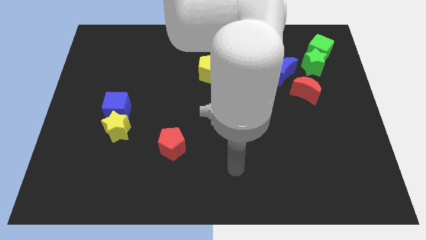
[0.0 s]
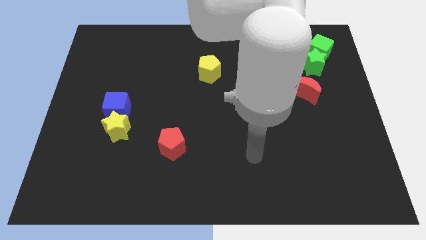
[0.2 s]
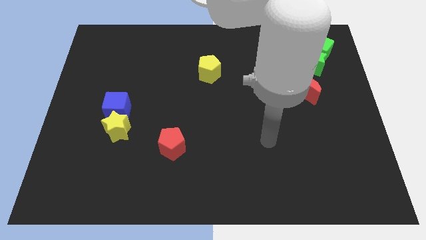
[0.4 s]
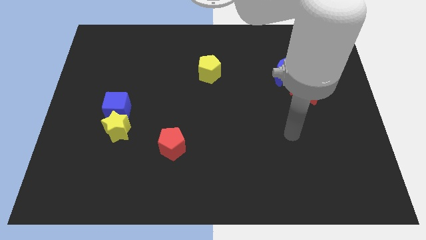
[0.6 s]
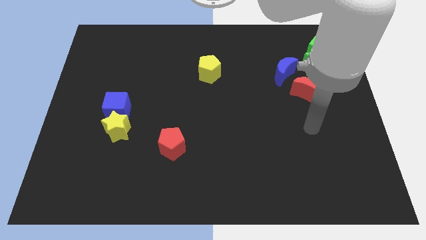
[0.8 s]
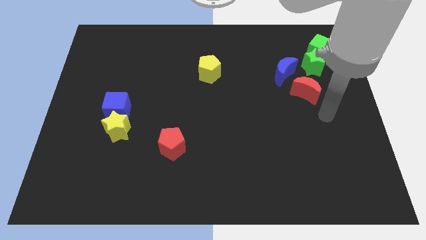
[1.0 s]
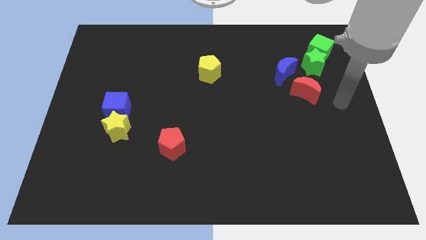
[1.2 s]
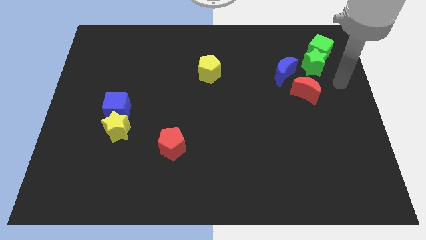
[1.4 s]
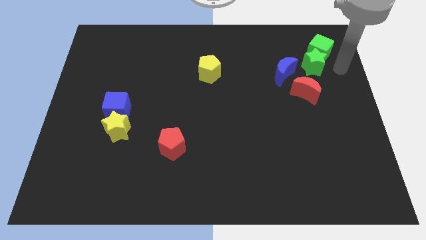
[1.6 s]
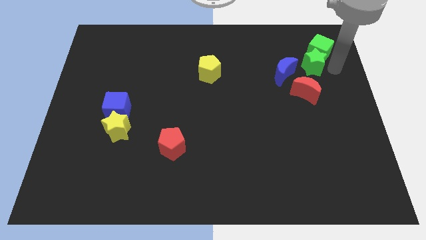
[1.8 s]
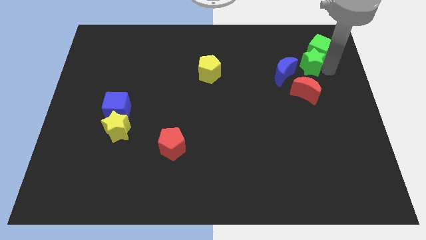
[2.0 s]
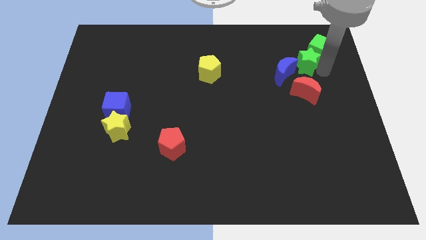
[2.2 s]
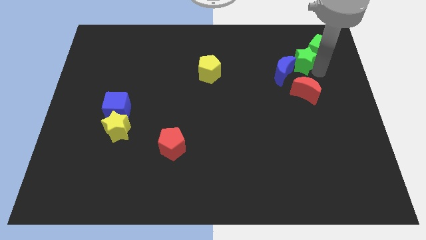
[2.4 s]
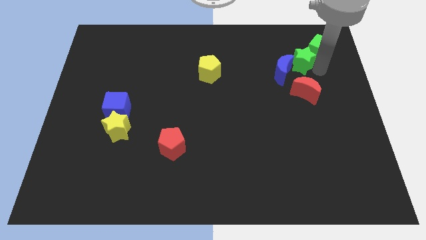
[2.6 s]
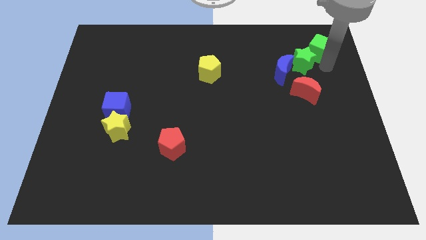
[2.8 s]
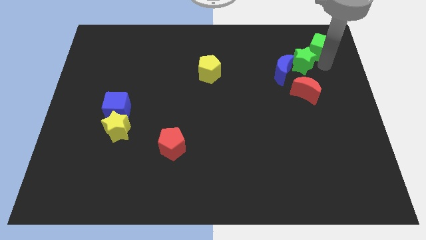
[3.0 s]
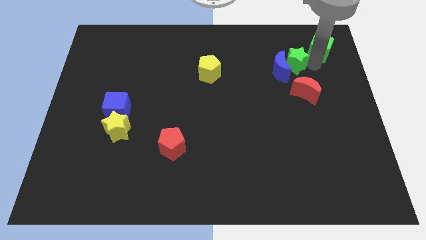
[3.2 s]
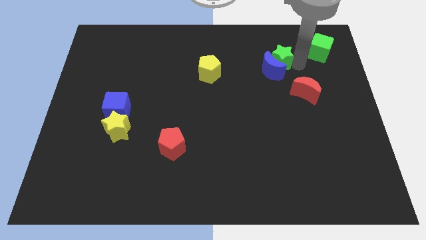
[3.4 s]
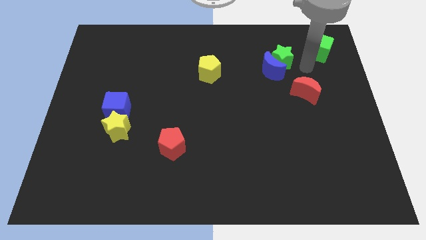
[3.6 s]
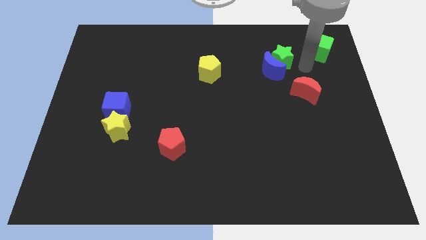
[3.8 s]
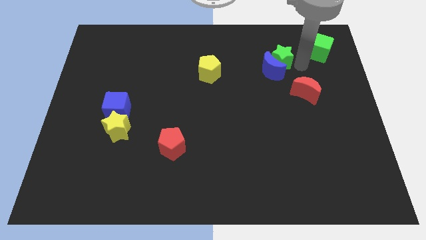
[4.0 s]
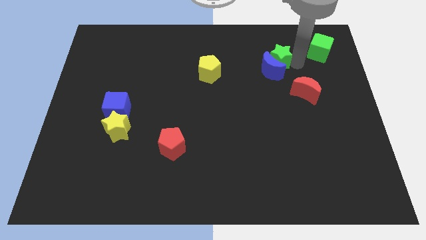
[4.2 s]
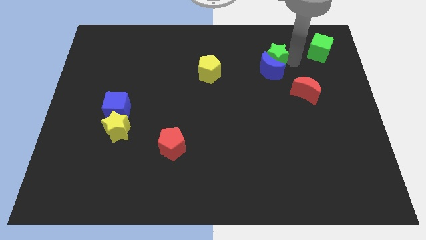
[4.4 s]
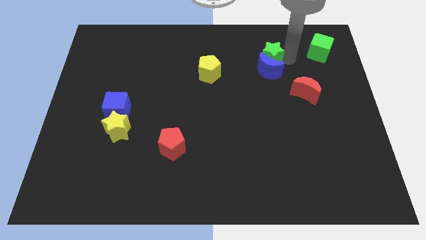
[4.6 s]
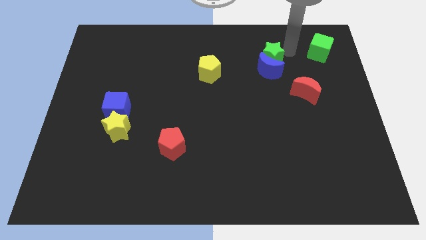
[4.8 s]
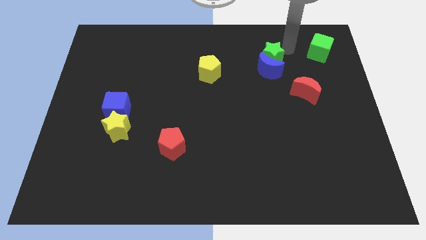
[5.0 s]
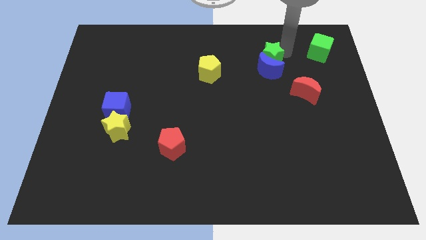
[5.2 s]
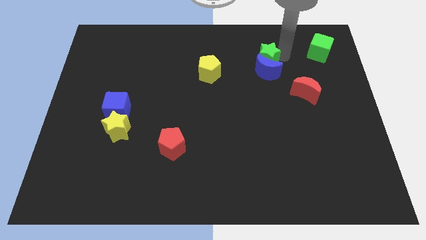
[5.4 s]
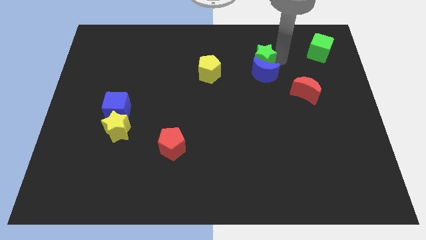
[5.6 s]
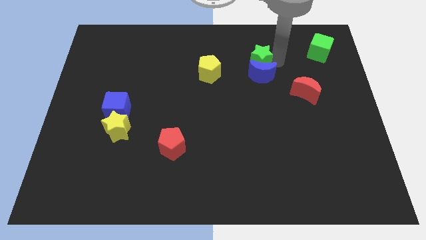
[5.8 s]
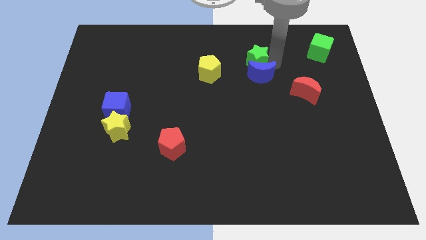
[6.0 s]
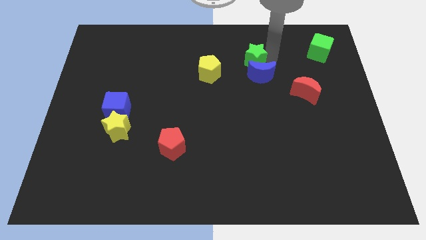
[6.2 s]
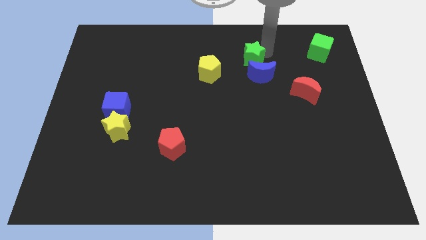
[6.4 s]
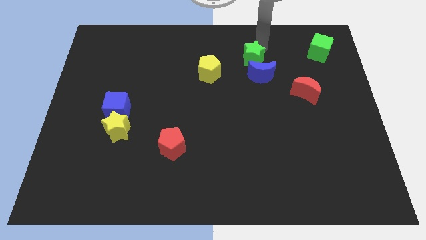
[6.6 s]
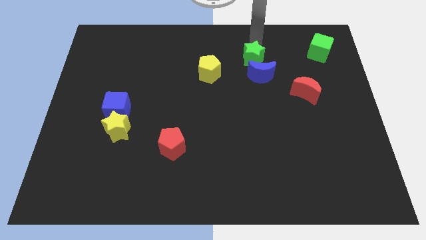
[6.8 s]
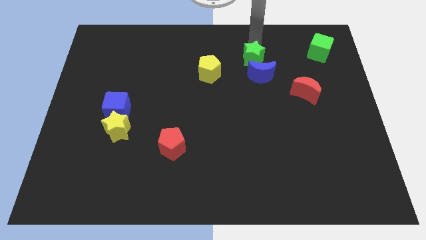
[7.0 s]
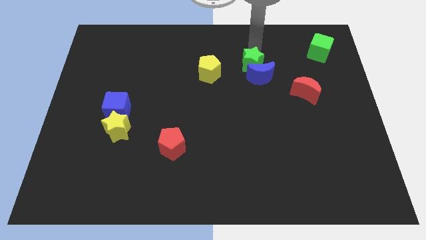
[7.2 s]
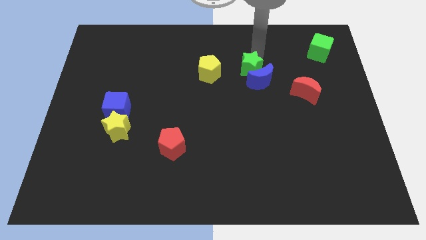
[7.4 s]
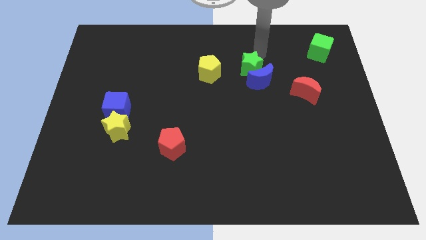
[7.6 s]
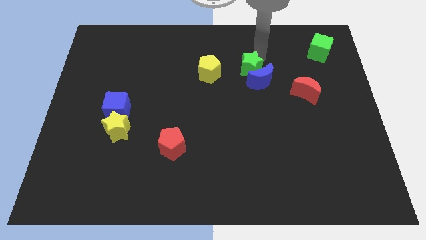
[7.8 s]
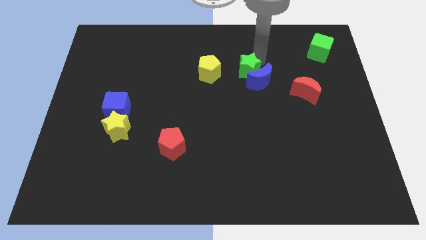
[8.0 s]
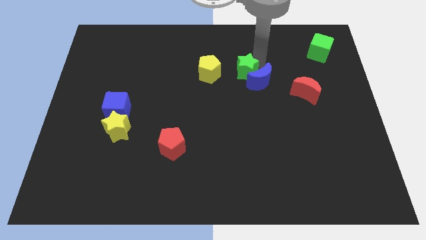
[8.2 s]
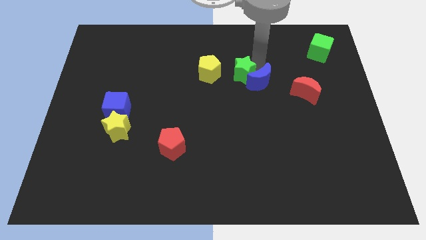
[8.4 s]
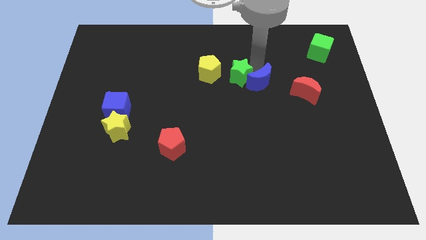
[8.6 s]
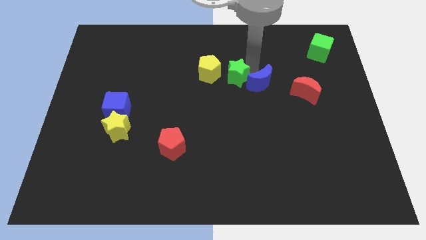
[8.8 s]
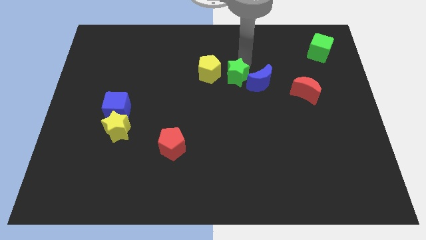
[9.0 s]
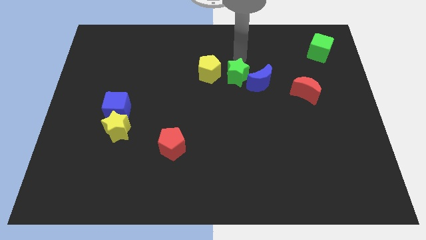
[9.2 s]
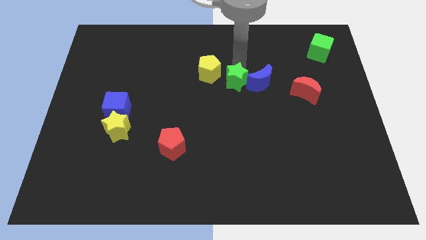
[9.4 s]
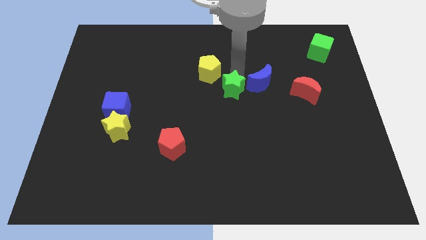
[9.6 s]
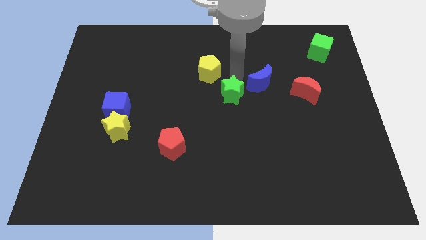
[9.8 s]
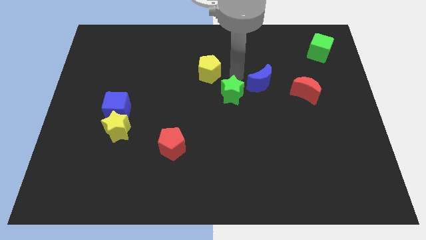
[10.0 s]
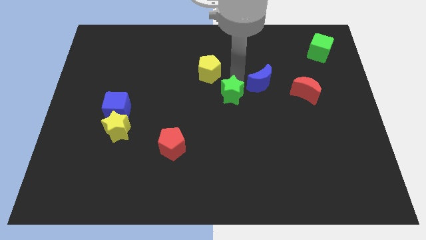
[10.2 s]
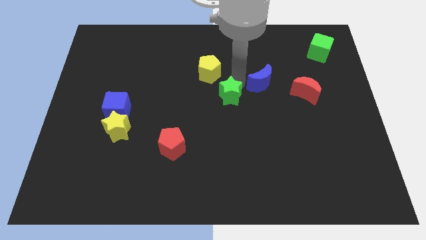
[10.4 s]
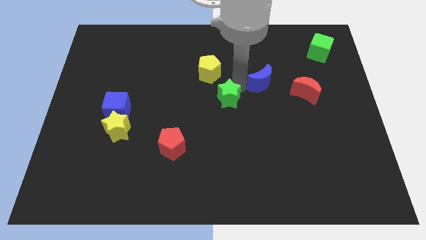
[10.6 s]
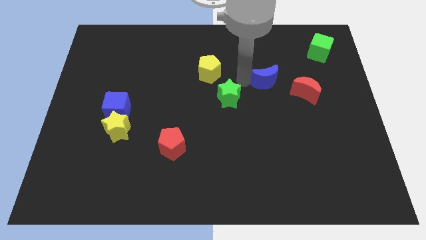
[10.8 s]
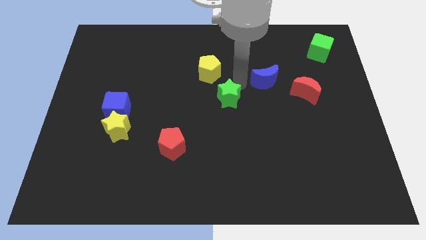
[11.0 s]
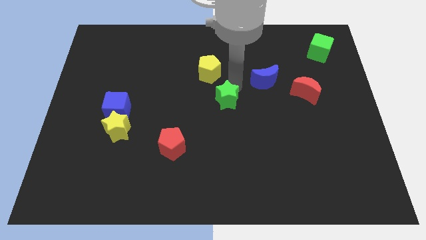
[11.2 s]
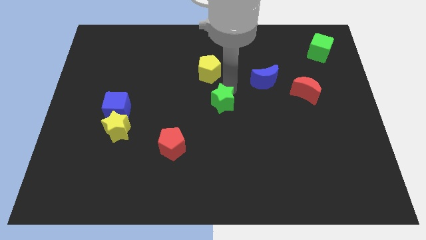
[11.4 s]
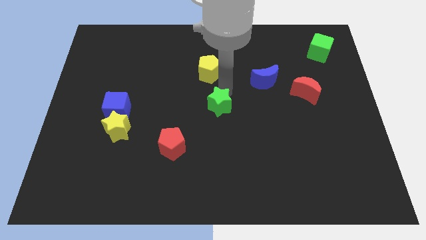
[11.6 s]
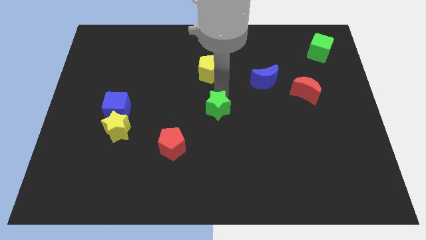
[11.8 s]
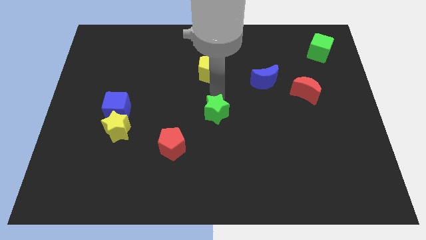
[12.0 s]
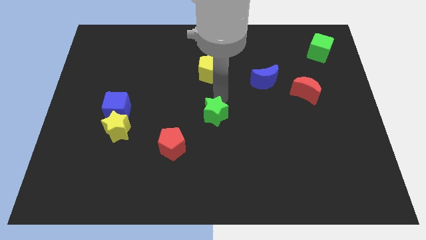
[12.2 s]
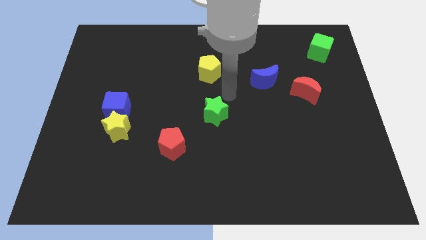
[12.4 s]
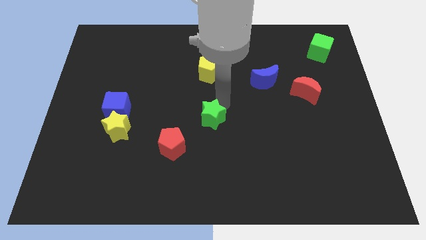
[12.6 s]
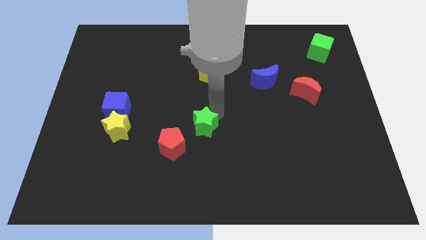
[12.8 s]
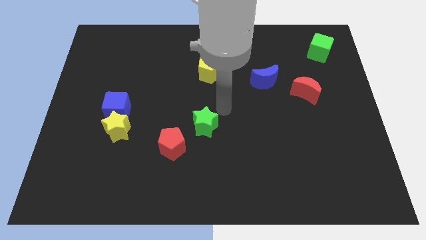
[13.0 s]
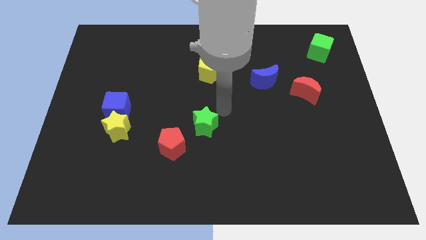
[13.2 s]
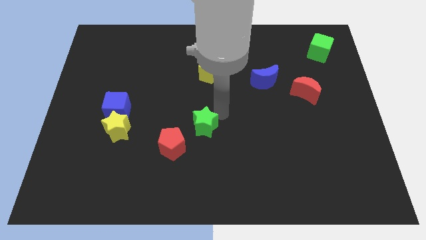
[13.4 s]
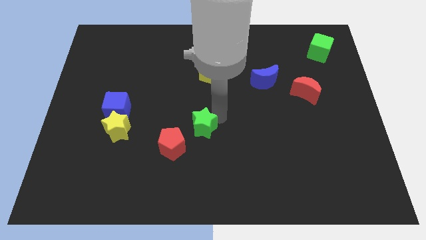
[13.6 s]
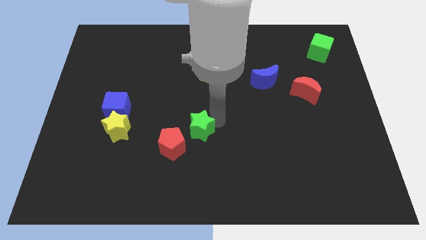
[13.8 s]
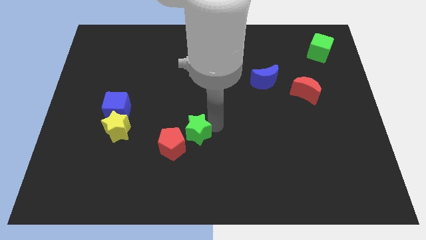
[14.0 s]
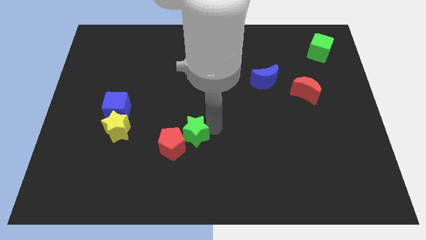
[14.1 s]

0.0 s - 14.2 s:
put the green star towards the red pentagon

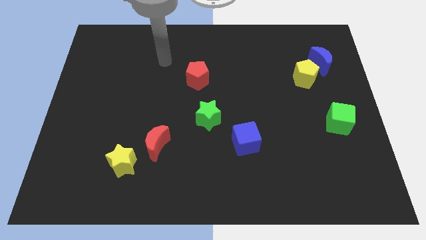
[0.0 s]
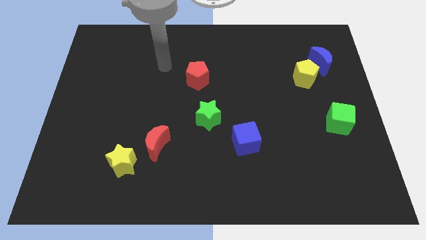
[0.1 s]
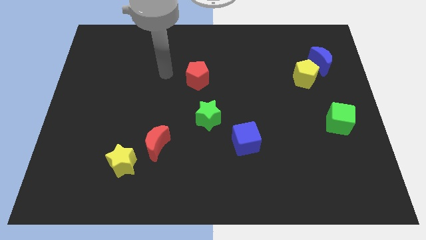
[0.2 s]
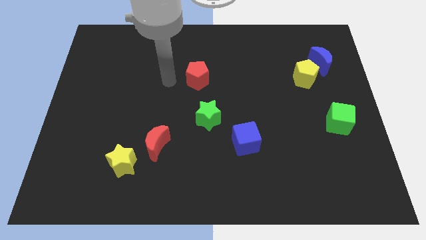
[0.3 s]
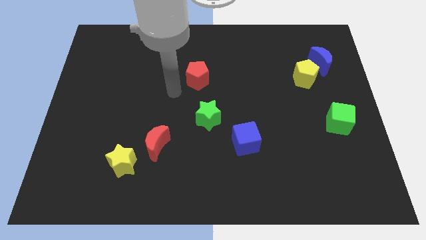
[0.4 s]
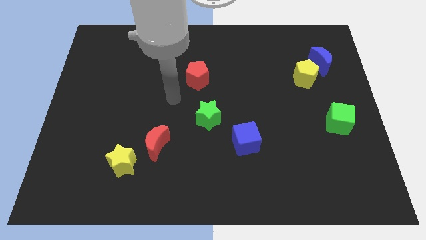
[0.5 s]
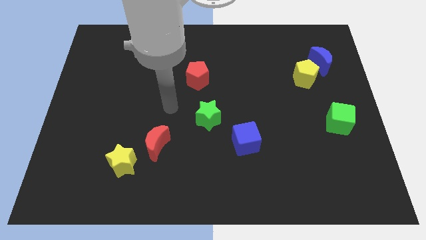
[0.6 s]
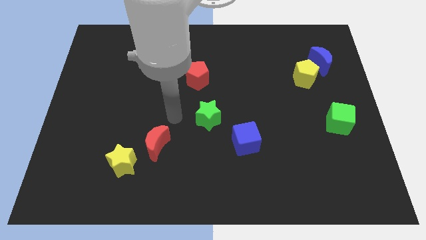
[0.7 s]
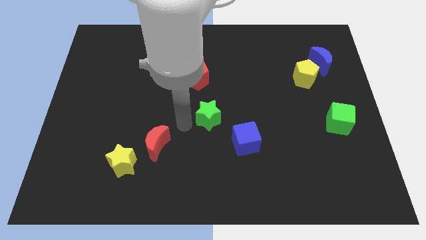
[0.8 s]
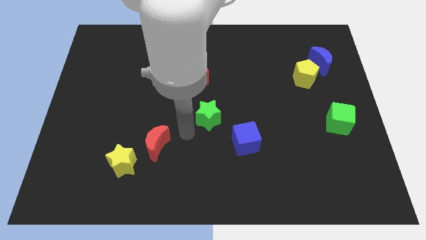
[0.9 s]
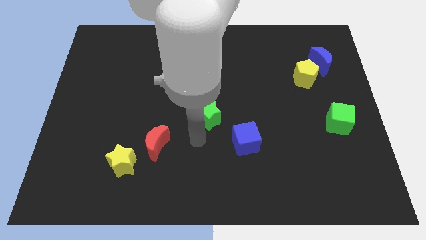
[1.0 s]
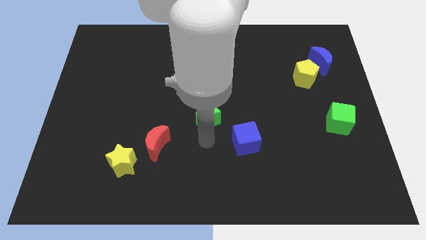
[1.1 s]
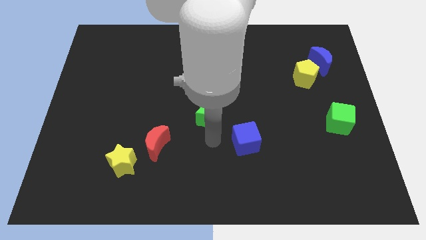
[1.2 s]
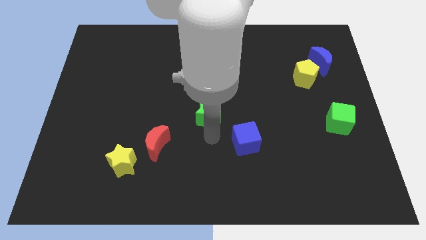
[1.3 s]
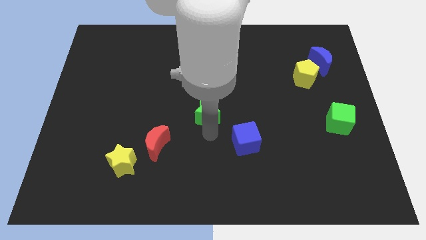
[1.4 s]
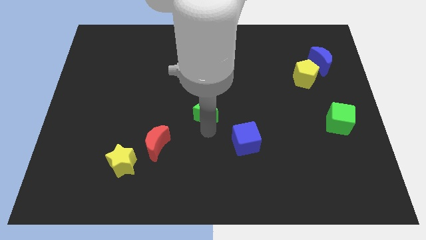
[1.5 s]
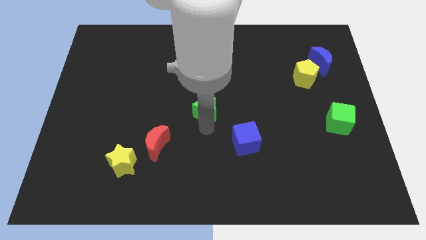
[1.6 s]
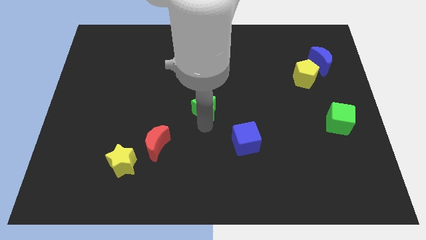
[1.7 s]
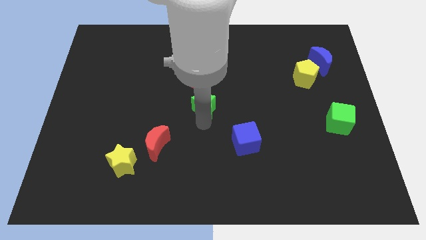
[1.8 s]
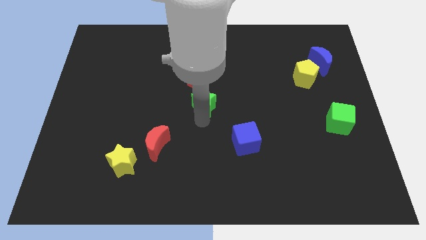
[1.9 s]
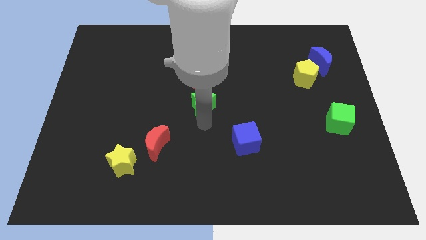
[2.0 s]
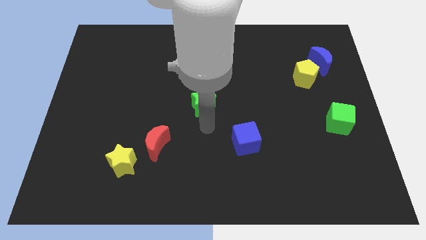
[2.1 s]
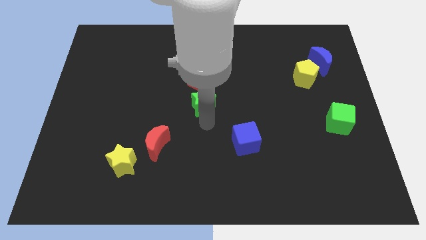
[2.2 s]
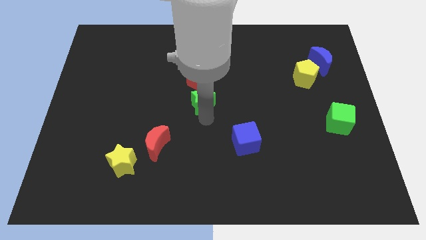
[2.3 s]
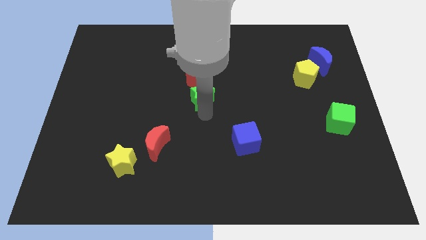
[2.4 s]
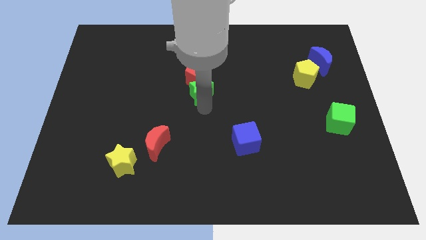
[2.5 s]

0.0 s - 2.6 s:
put the green star next to the red pentagon
